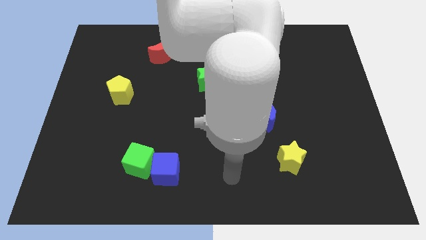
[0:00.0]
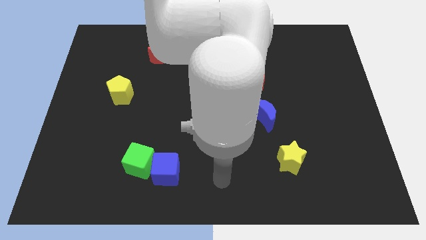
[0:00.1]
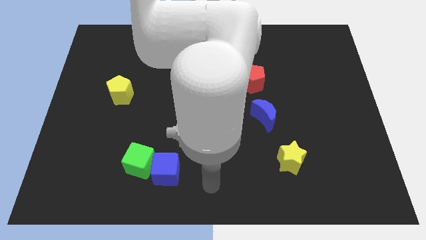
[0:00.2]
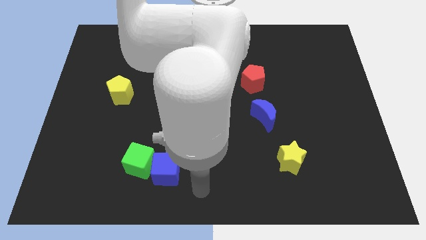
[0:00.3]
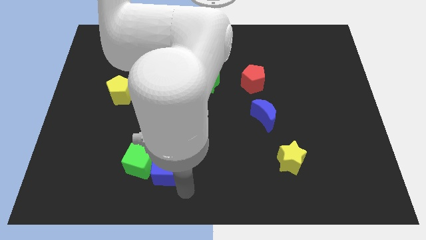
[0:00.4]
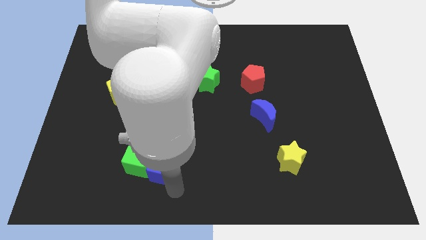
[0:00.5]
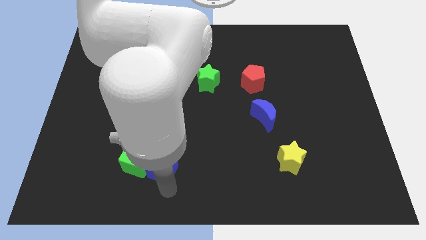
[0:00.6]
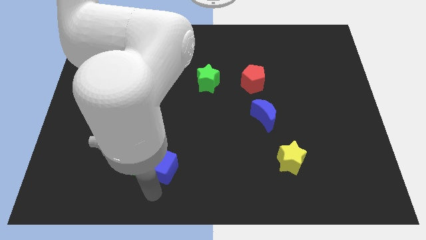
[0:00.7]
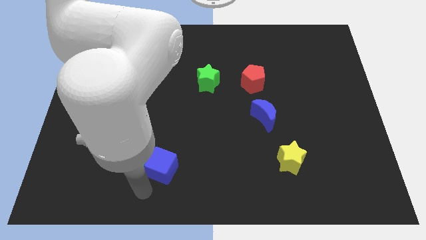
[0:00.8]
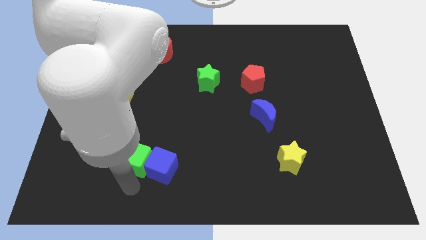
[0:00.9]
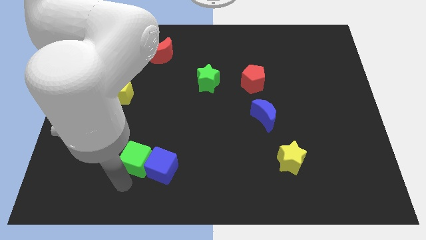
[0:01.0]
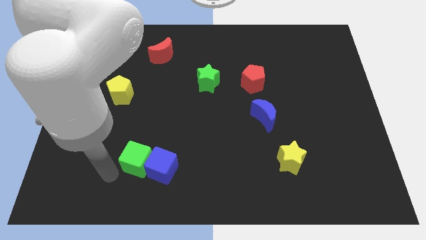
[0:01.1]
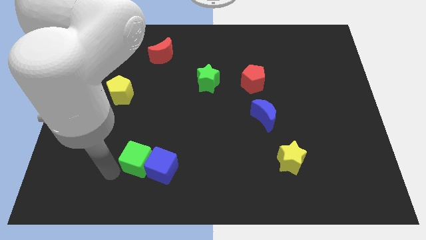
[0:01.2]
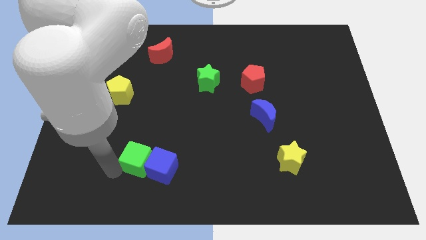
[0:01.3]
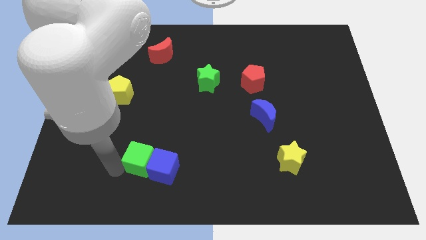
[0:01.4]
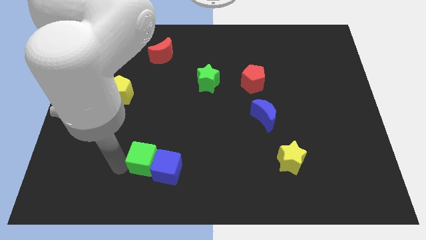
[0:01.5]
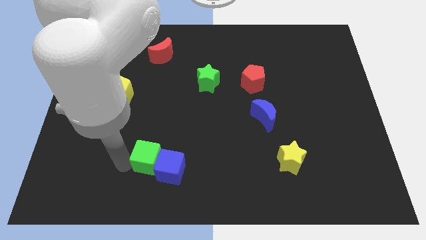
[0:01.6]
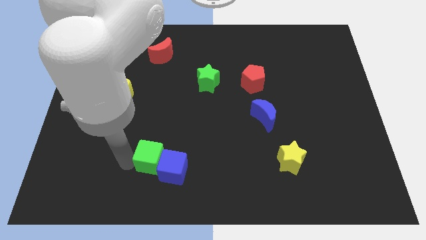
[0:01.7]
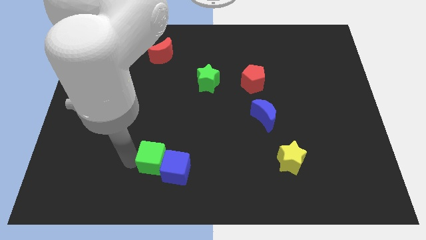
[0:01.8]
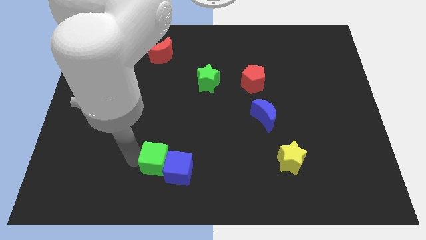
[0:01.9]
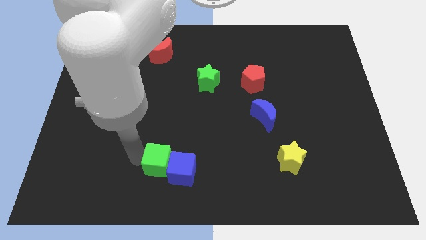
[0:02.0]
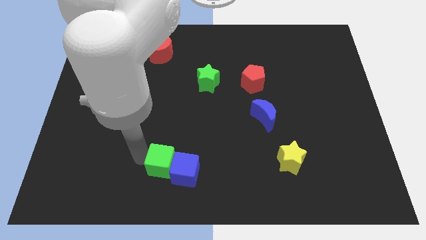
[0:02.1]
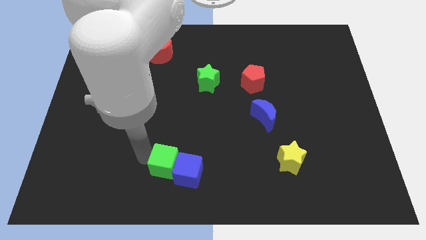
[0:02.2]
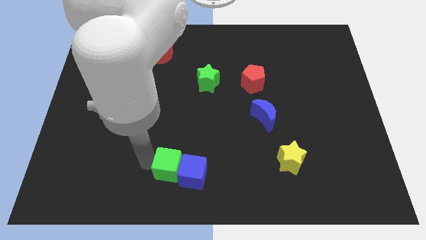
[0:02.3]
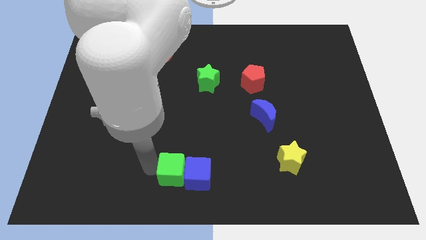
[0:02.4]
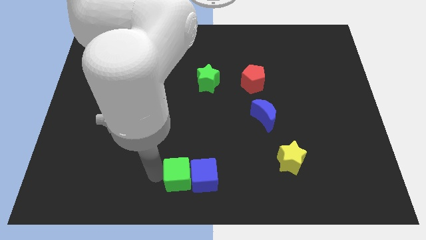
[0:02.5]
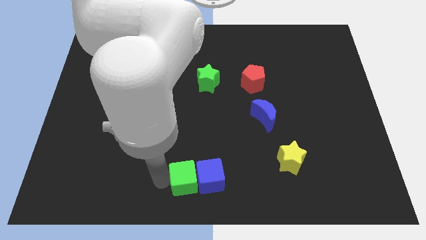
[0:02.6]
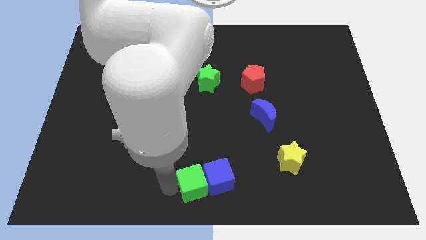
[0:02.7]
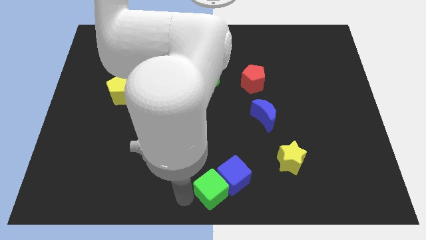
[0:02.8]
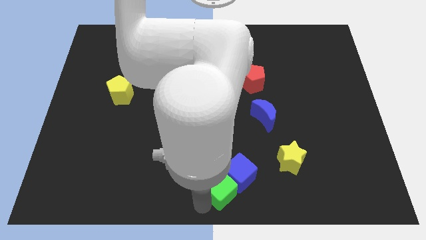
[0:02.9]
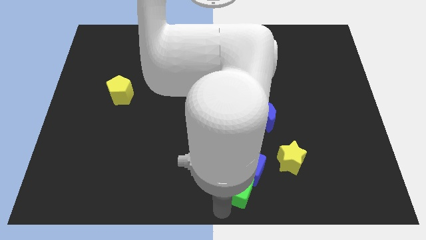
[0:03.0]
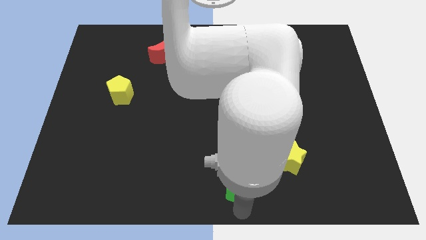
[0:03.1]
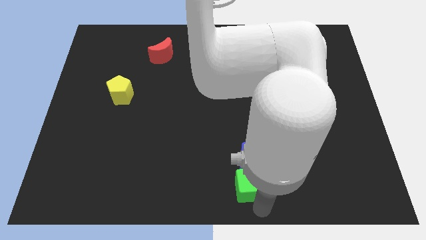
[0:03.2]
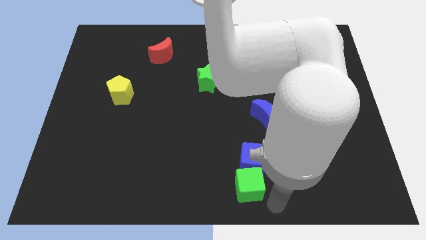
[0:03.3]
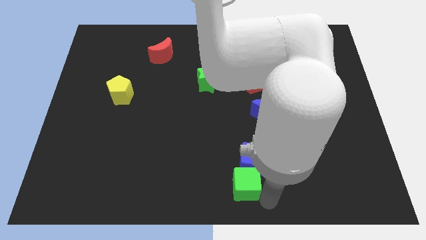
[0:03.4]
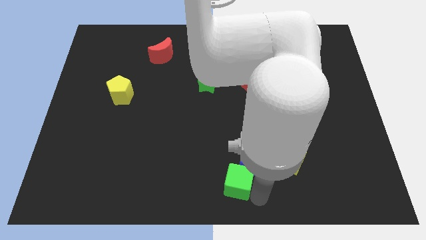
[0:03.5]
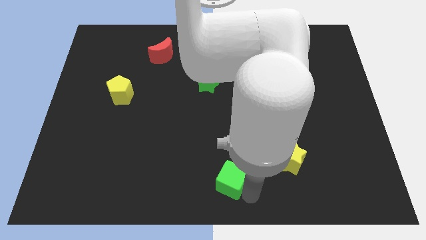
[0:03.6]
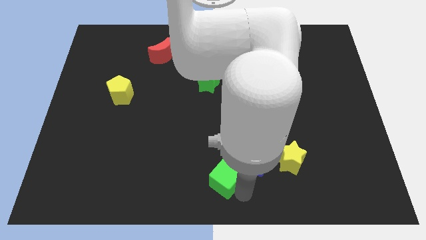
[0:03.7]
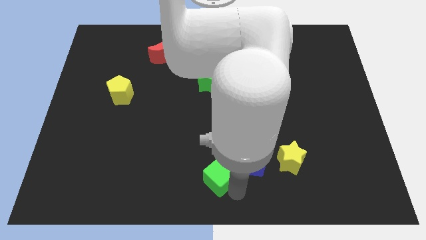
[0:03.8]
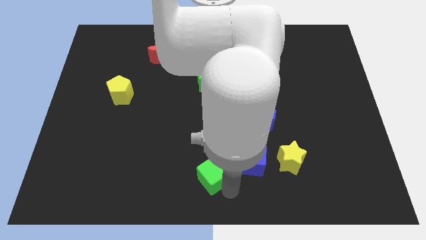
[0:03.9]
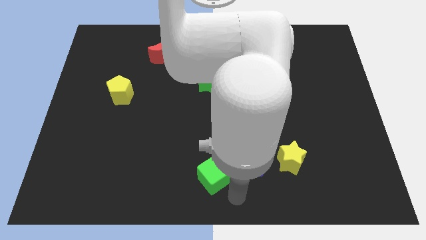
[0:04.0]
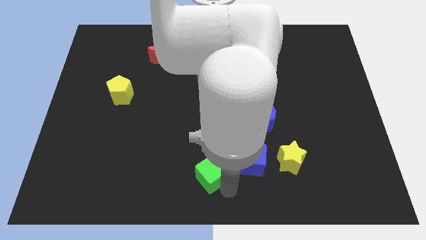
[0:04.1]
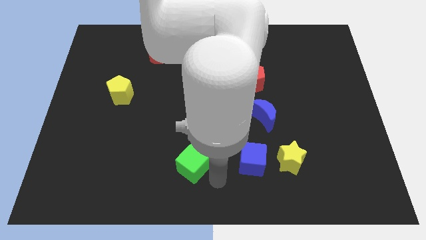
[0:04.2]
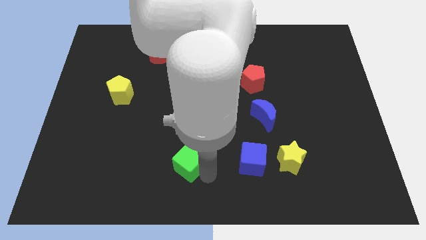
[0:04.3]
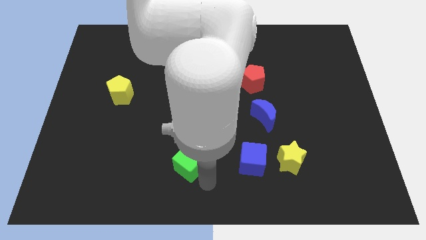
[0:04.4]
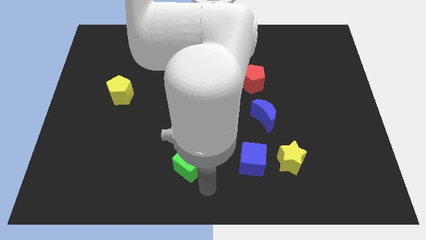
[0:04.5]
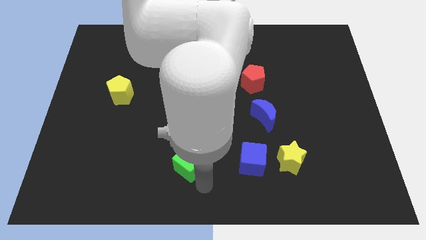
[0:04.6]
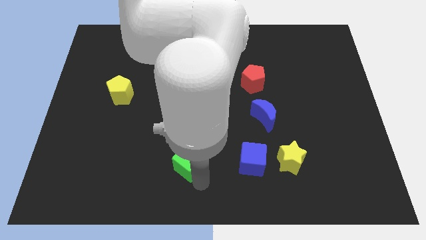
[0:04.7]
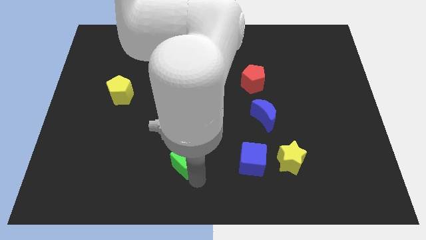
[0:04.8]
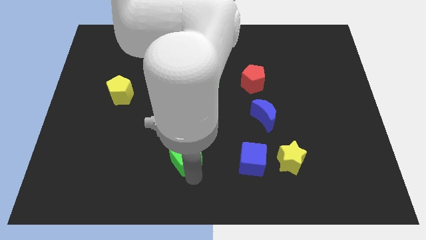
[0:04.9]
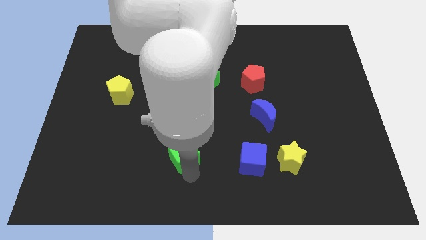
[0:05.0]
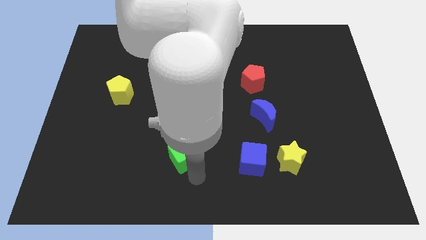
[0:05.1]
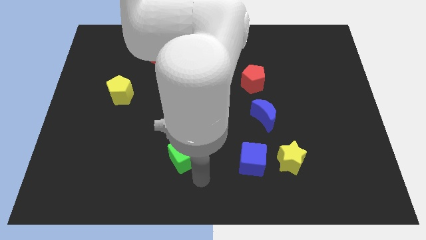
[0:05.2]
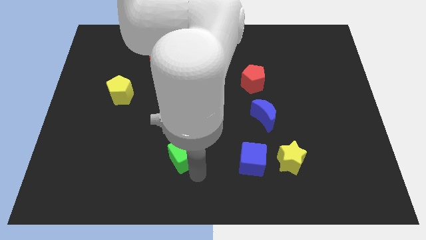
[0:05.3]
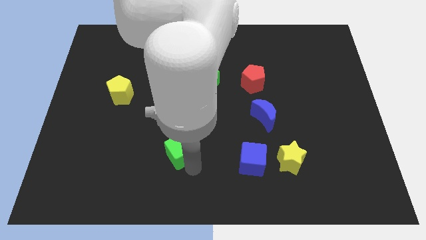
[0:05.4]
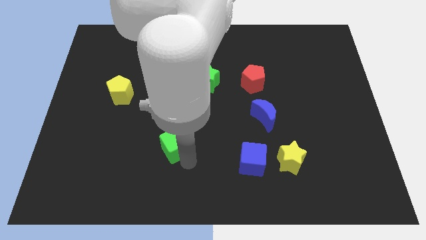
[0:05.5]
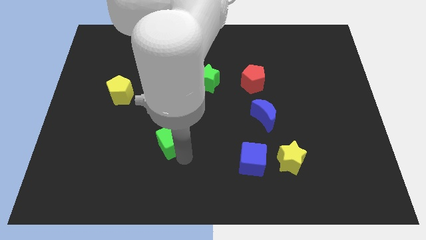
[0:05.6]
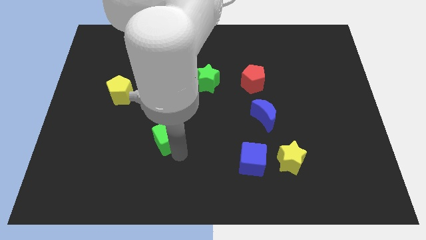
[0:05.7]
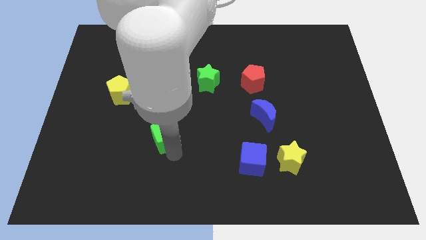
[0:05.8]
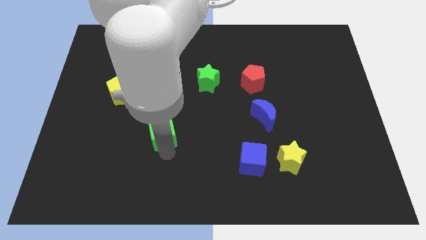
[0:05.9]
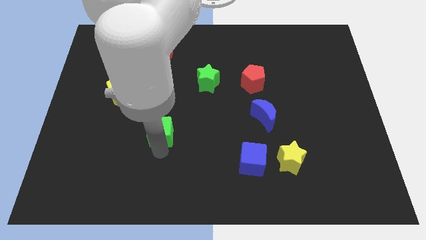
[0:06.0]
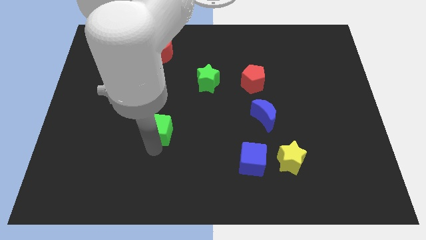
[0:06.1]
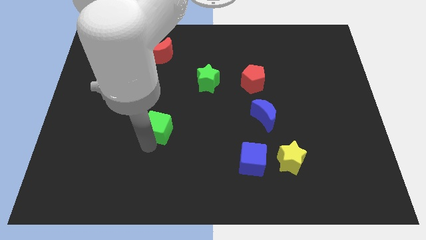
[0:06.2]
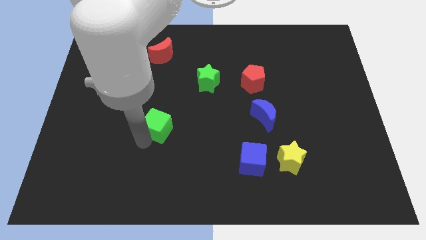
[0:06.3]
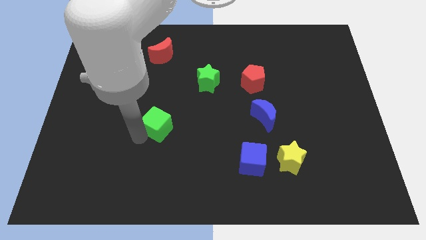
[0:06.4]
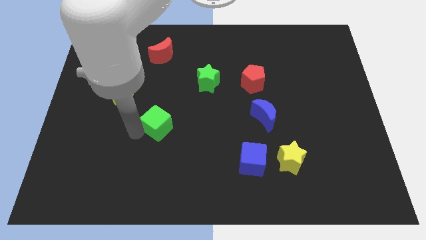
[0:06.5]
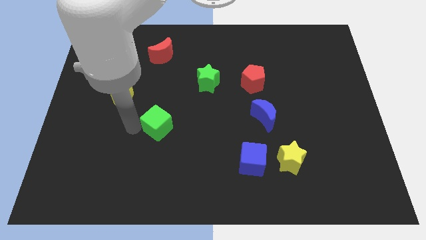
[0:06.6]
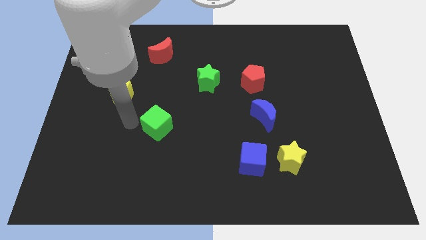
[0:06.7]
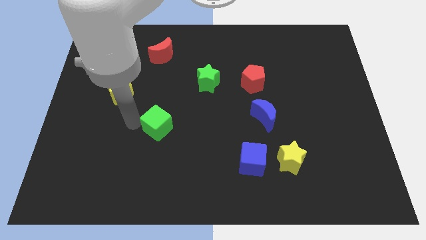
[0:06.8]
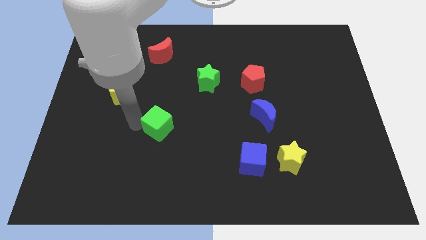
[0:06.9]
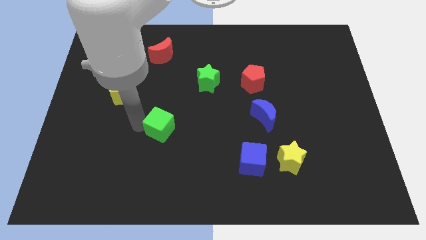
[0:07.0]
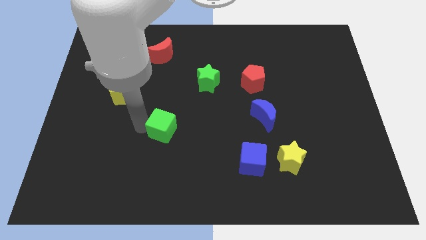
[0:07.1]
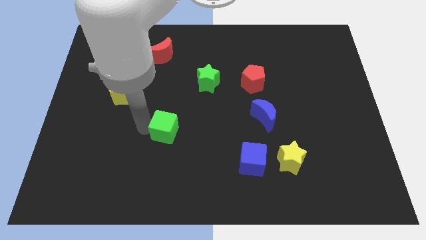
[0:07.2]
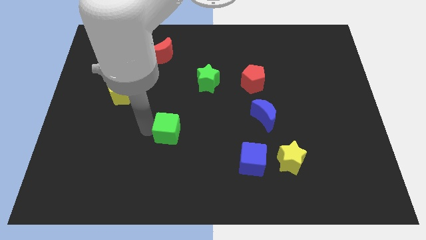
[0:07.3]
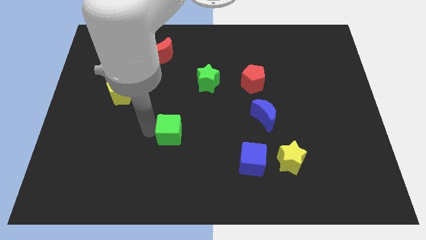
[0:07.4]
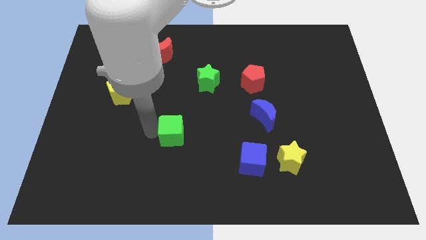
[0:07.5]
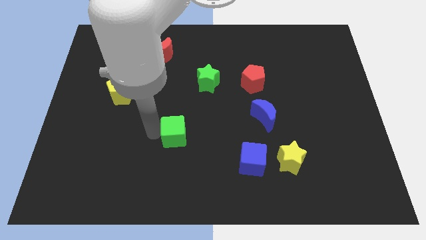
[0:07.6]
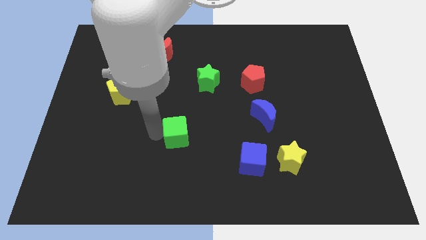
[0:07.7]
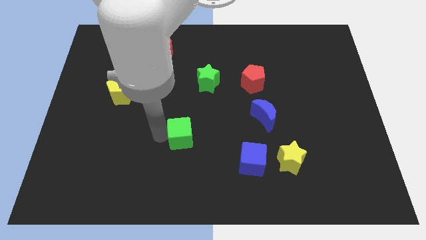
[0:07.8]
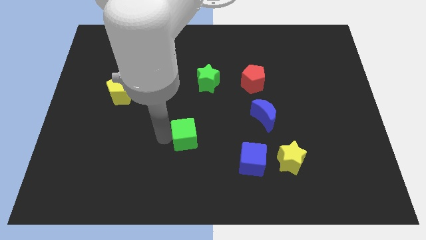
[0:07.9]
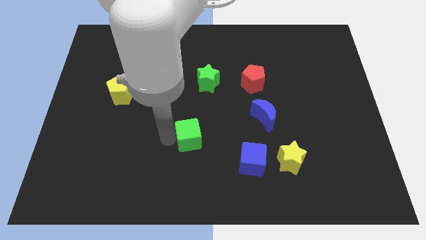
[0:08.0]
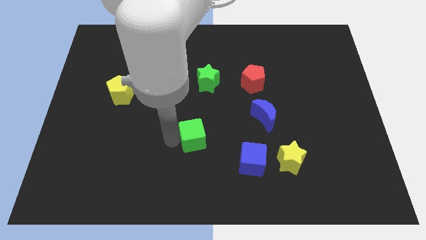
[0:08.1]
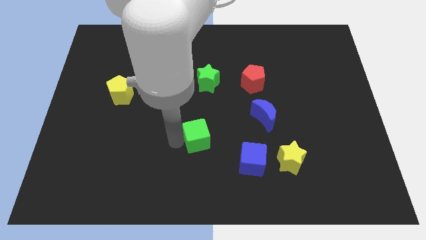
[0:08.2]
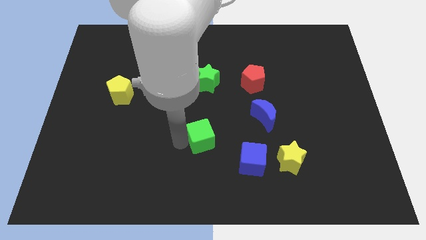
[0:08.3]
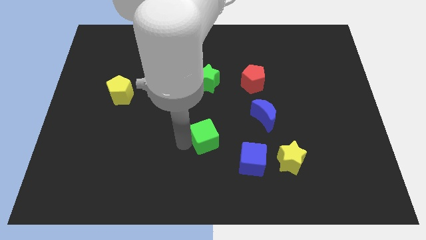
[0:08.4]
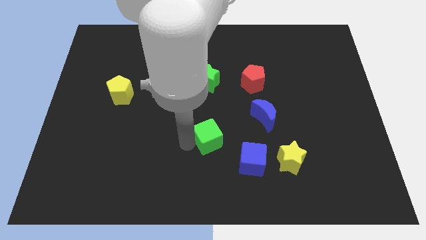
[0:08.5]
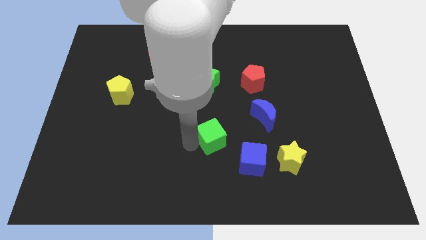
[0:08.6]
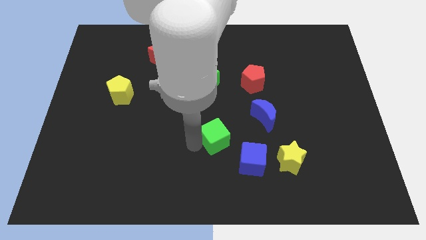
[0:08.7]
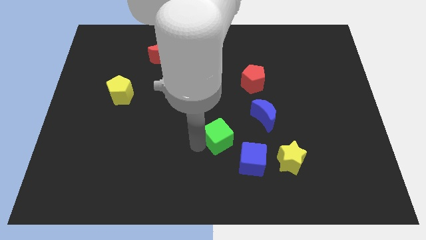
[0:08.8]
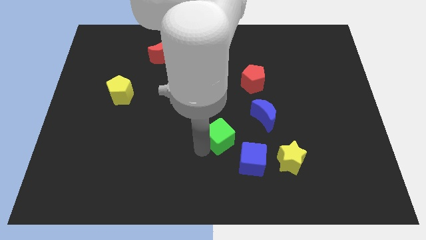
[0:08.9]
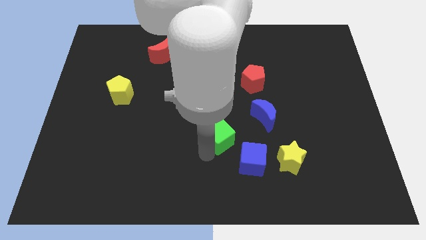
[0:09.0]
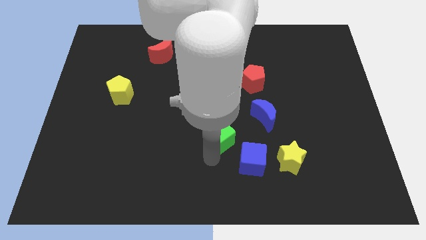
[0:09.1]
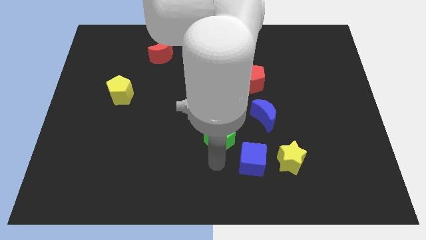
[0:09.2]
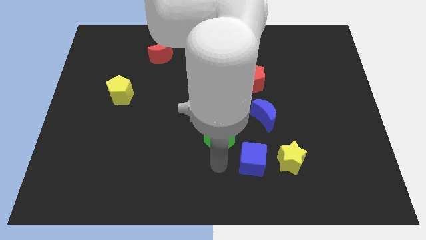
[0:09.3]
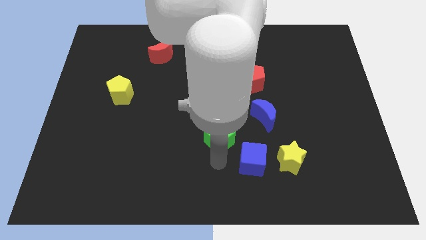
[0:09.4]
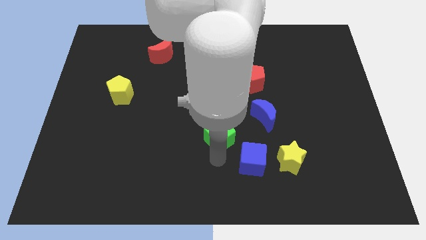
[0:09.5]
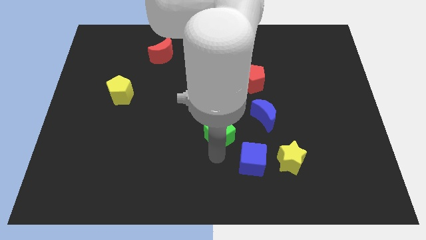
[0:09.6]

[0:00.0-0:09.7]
move the green cube to the left side of the blue moon
